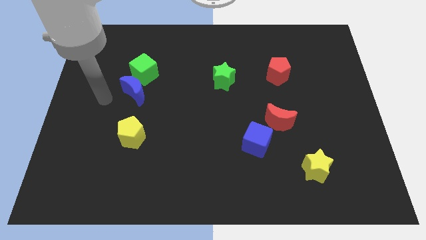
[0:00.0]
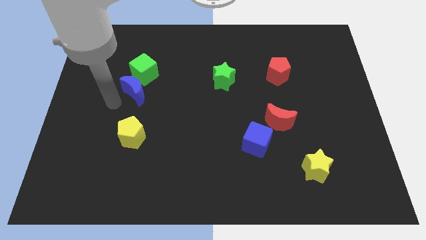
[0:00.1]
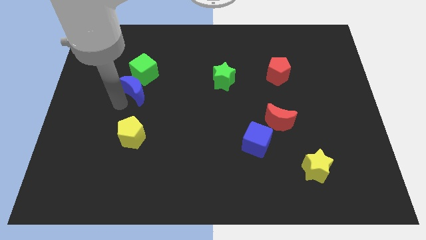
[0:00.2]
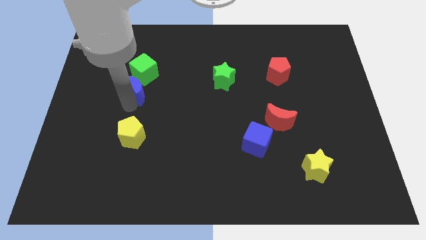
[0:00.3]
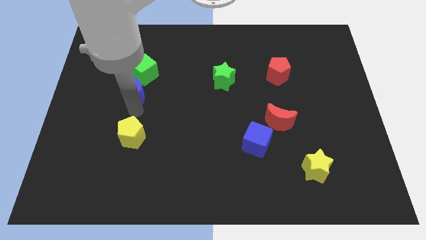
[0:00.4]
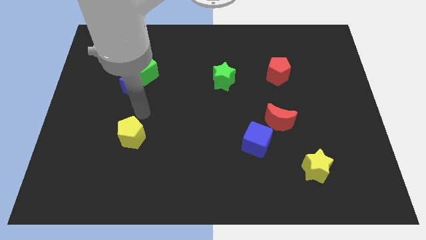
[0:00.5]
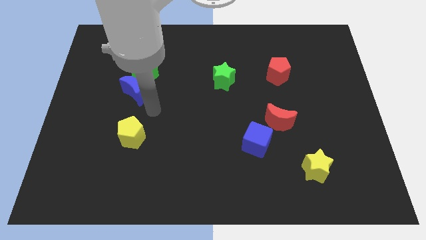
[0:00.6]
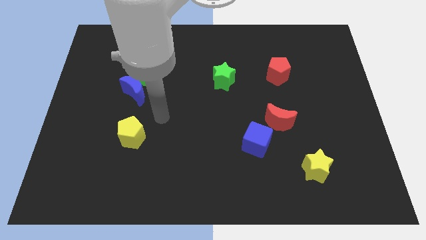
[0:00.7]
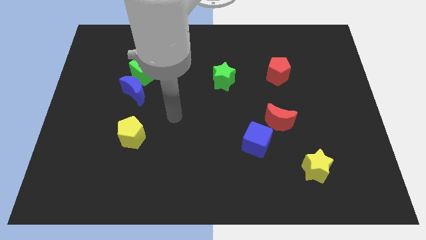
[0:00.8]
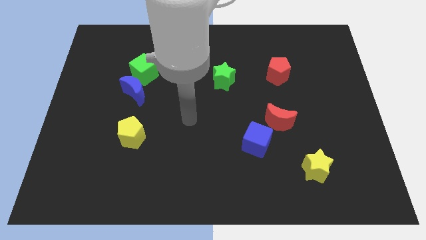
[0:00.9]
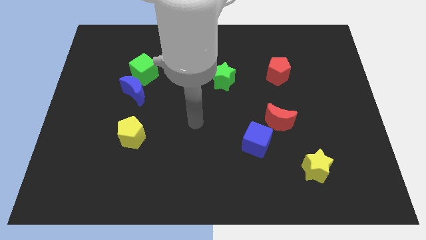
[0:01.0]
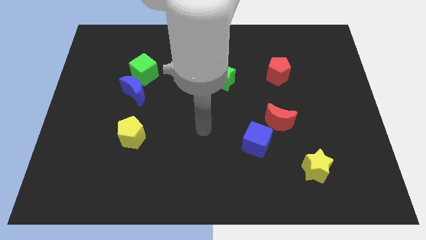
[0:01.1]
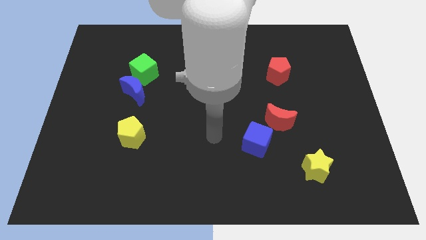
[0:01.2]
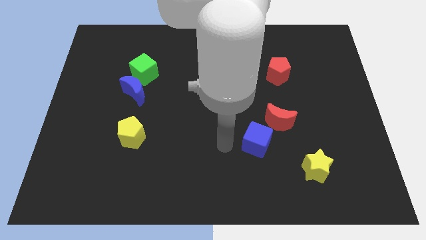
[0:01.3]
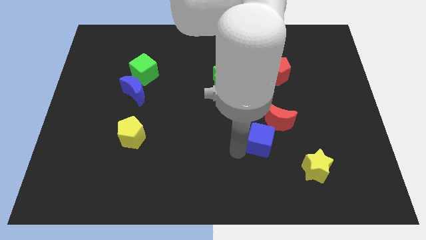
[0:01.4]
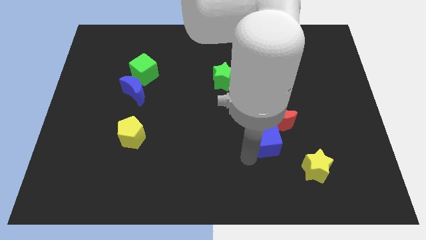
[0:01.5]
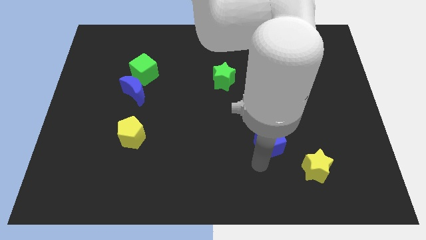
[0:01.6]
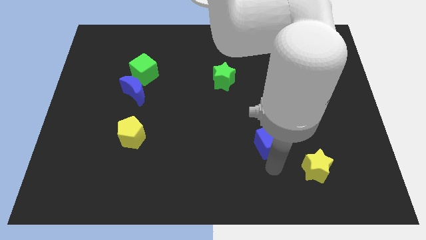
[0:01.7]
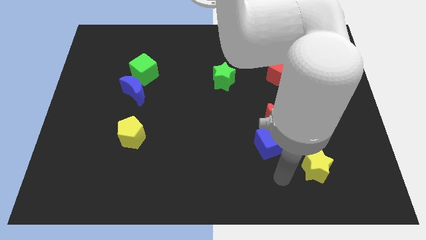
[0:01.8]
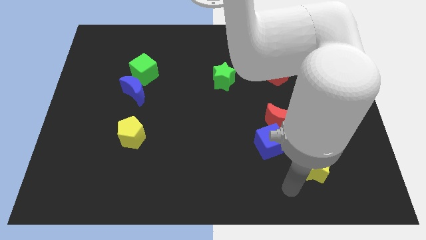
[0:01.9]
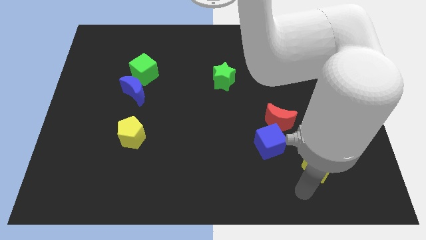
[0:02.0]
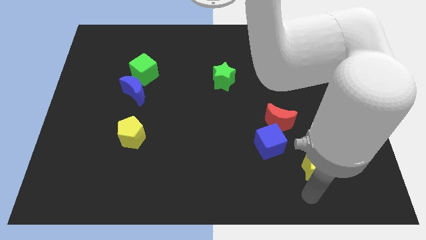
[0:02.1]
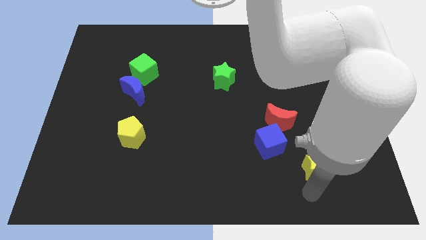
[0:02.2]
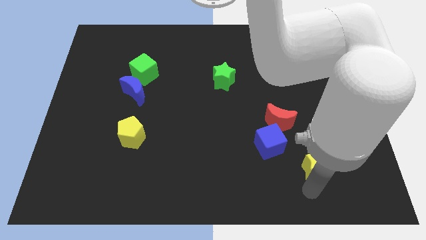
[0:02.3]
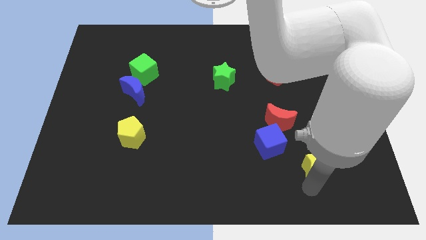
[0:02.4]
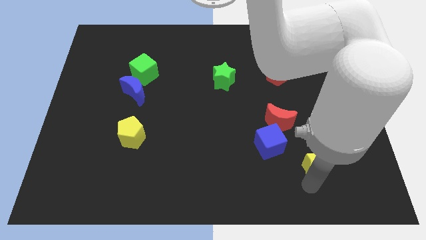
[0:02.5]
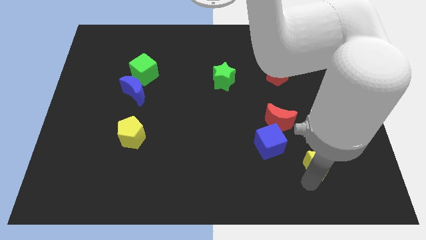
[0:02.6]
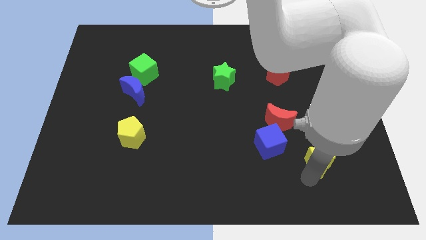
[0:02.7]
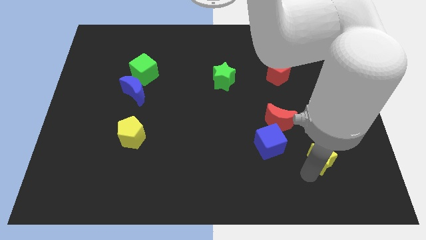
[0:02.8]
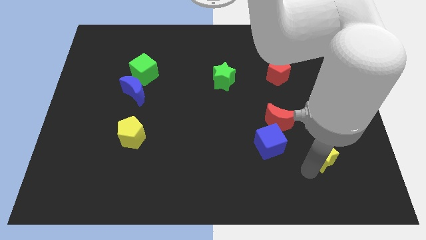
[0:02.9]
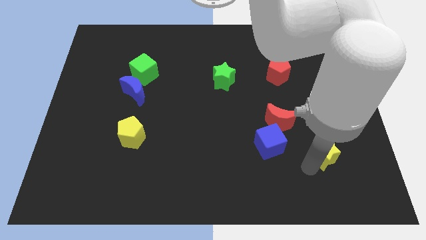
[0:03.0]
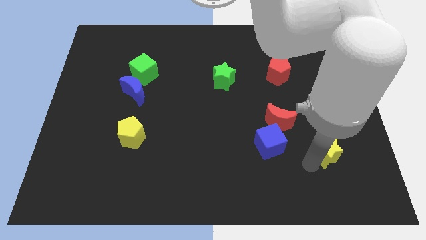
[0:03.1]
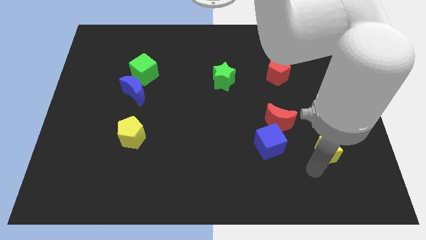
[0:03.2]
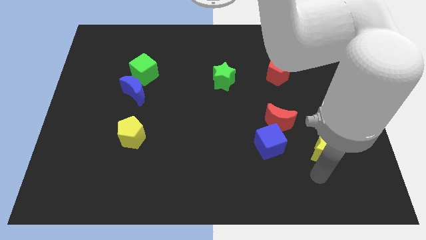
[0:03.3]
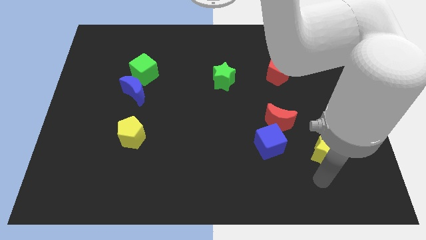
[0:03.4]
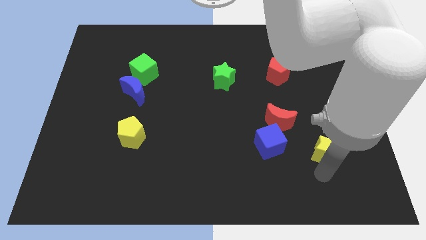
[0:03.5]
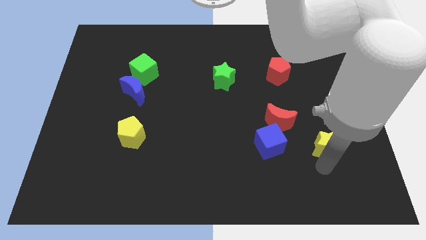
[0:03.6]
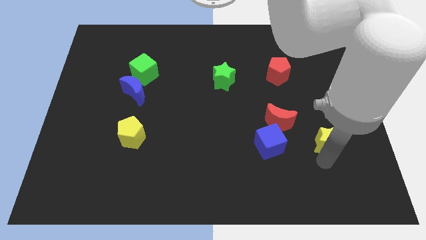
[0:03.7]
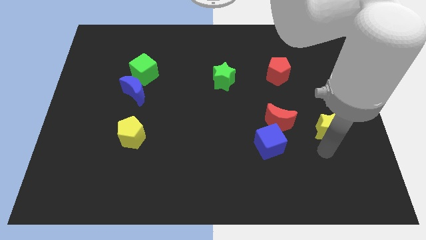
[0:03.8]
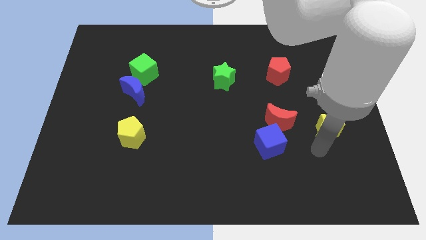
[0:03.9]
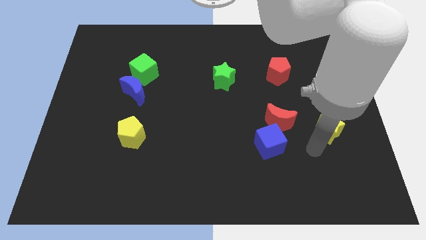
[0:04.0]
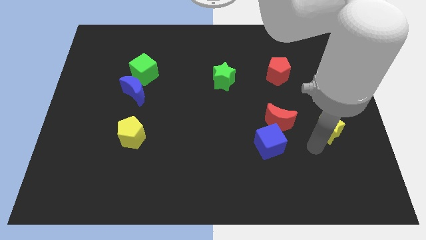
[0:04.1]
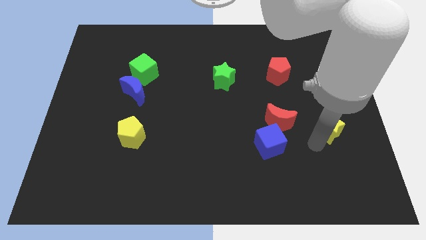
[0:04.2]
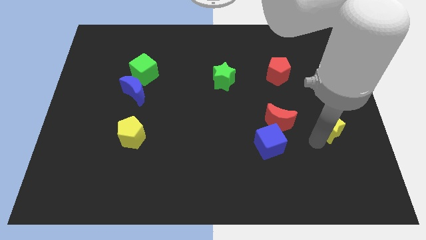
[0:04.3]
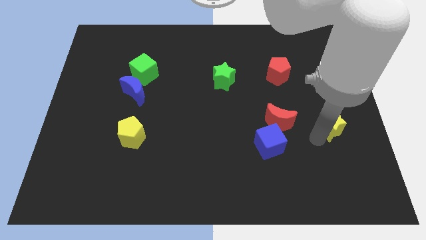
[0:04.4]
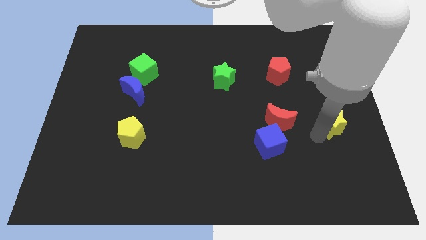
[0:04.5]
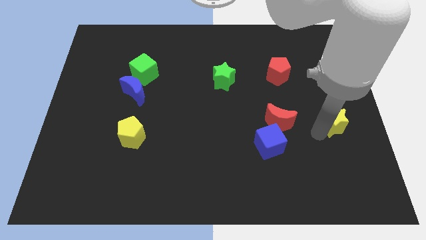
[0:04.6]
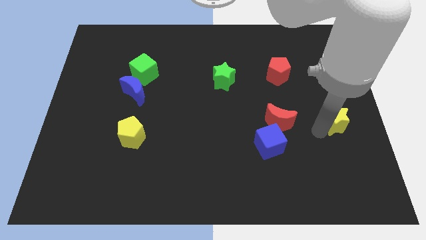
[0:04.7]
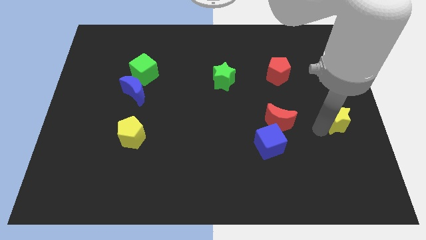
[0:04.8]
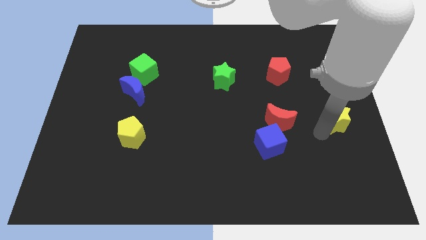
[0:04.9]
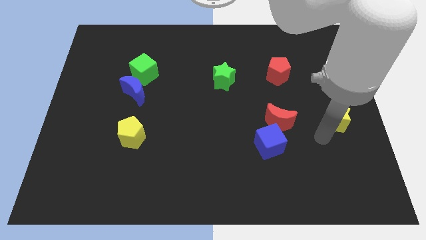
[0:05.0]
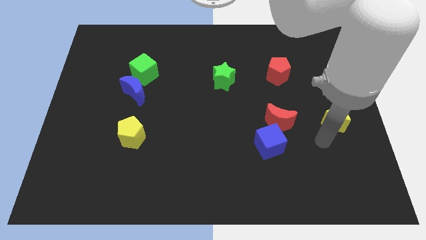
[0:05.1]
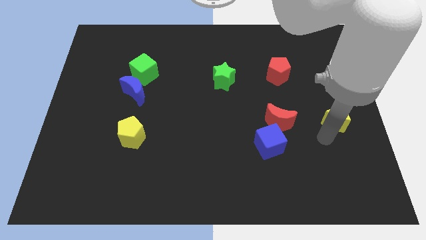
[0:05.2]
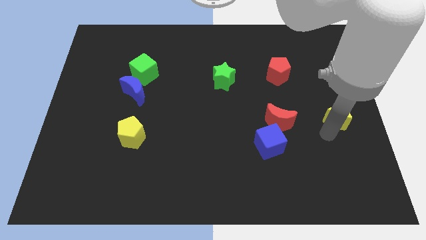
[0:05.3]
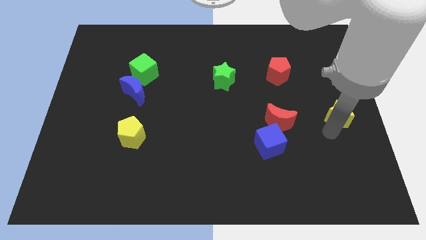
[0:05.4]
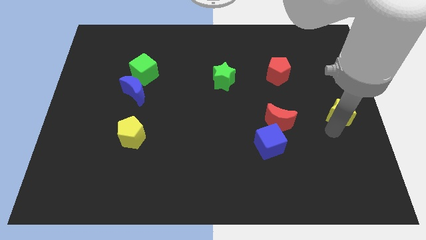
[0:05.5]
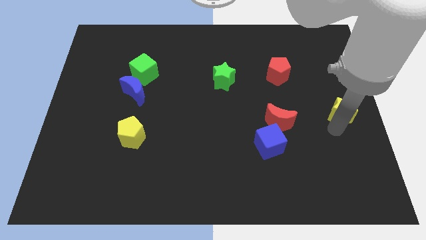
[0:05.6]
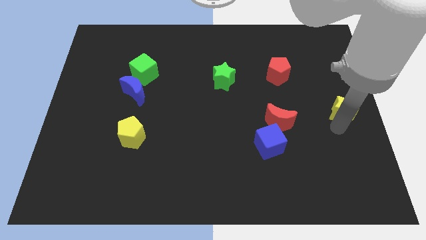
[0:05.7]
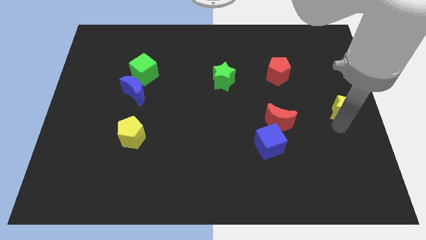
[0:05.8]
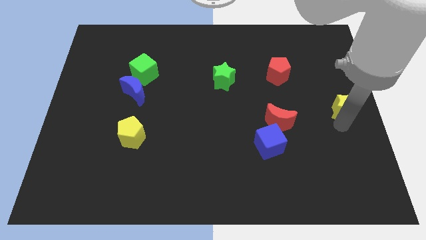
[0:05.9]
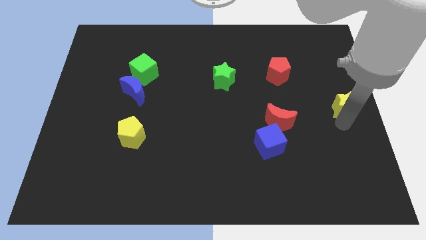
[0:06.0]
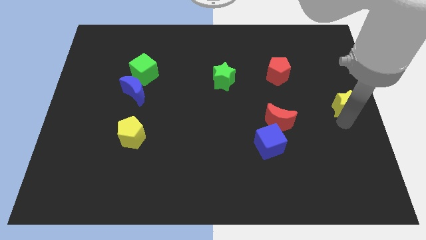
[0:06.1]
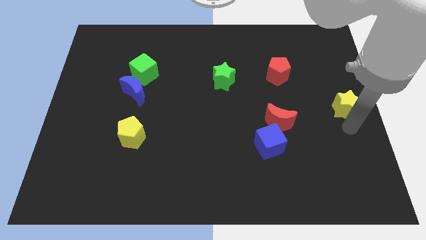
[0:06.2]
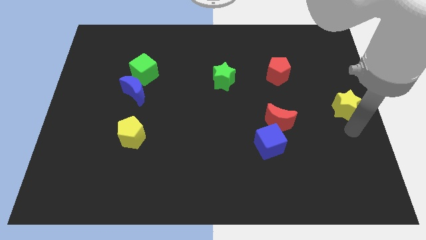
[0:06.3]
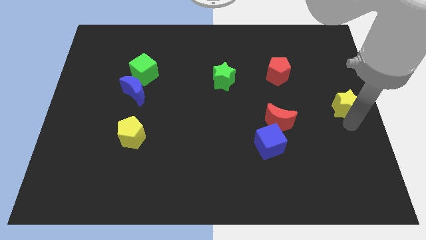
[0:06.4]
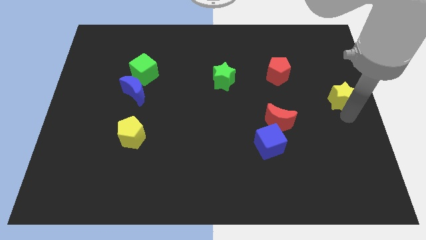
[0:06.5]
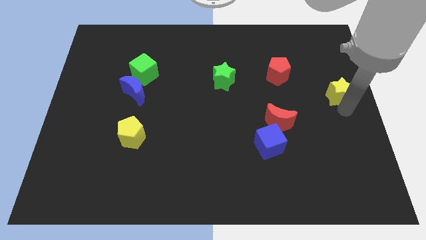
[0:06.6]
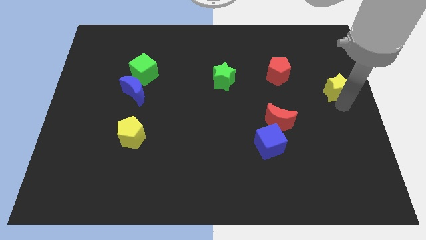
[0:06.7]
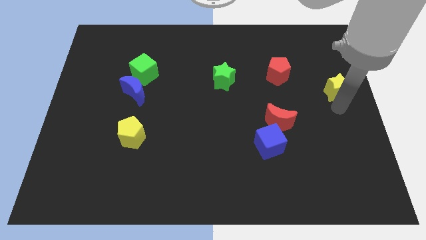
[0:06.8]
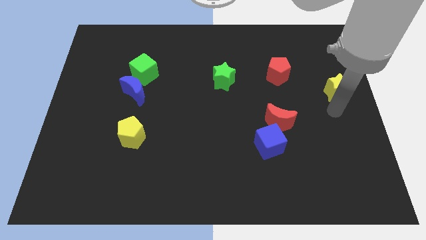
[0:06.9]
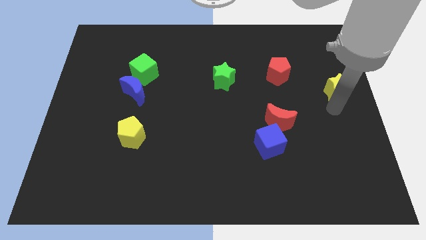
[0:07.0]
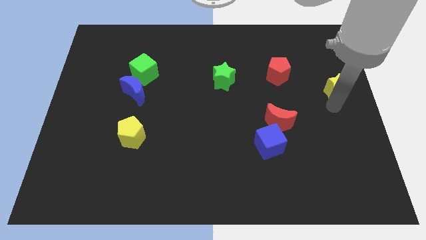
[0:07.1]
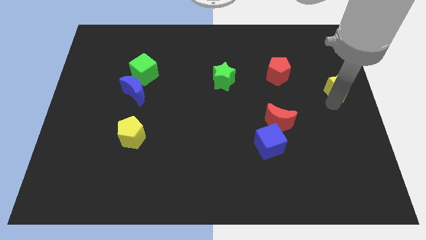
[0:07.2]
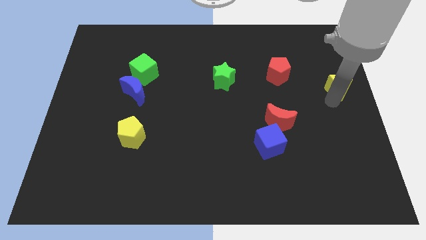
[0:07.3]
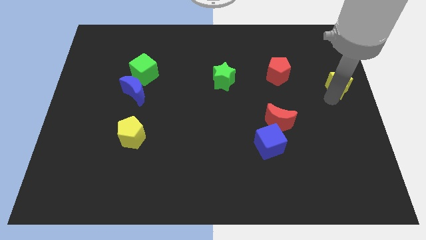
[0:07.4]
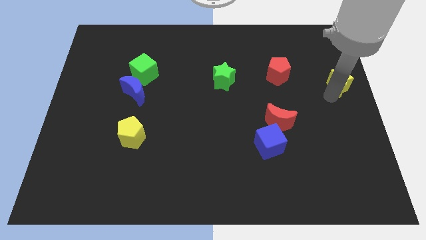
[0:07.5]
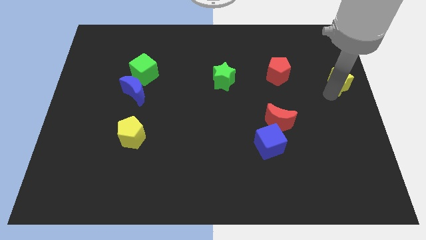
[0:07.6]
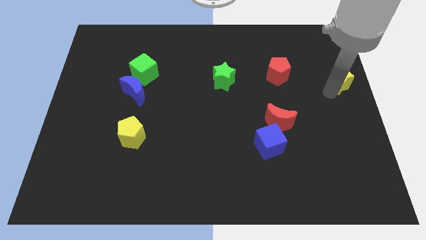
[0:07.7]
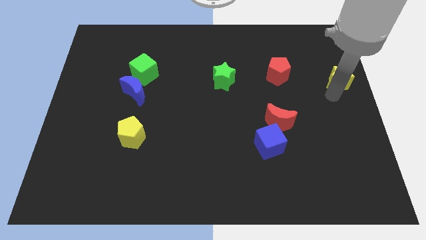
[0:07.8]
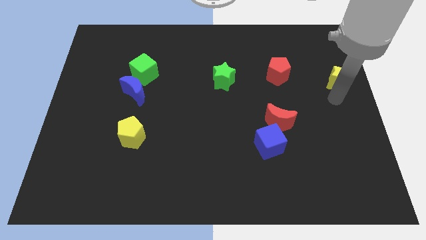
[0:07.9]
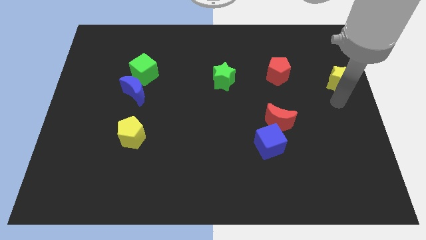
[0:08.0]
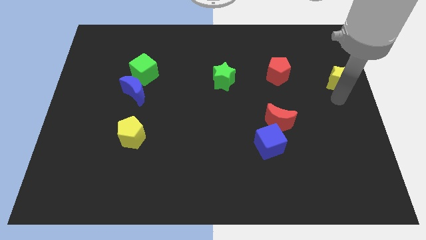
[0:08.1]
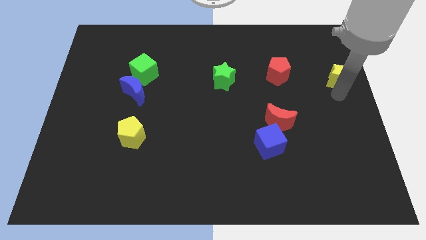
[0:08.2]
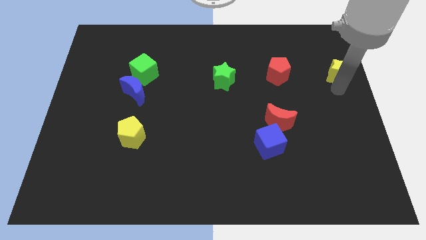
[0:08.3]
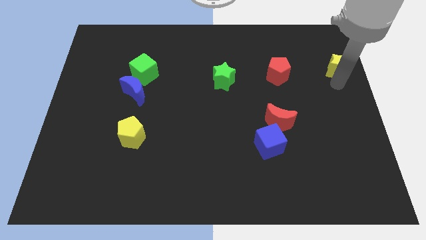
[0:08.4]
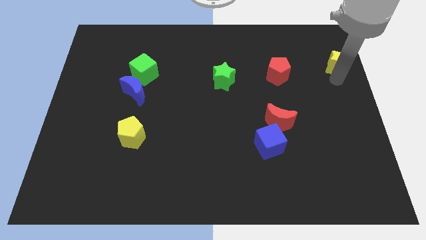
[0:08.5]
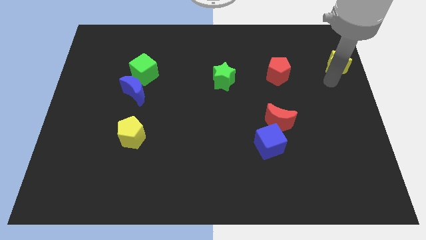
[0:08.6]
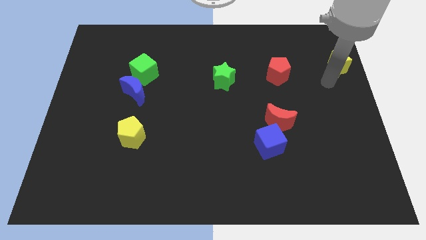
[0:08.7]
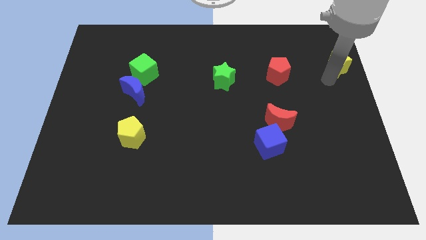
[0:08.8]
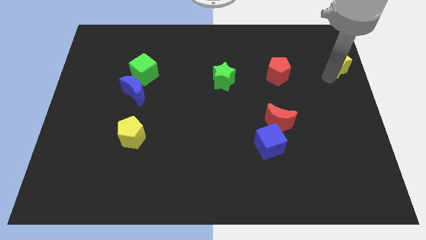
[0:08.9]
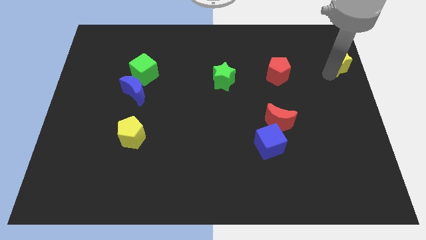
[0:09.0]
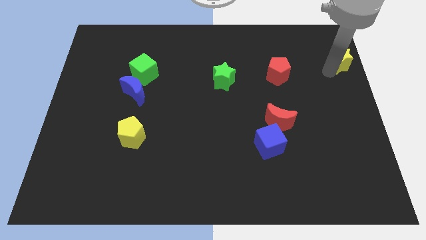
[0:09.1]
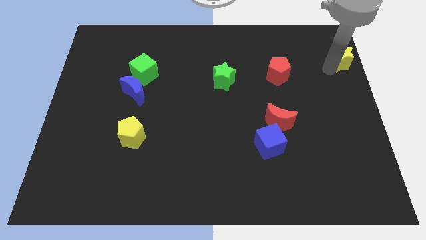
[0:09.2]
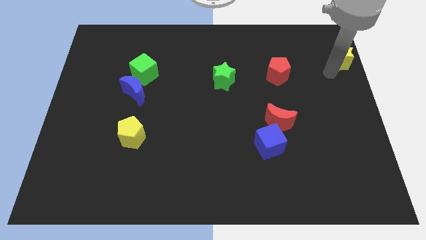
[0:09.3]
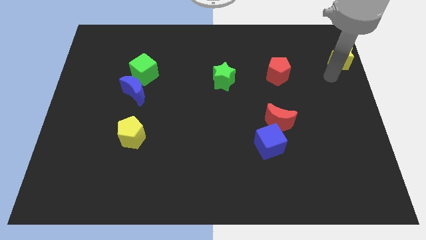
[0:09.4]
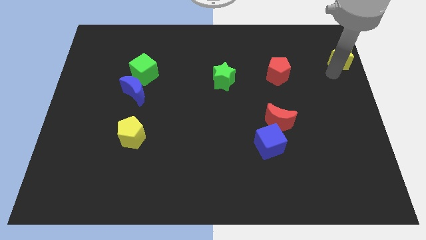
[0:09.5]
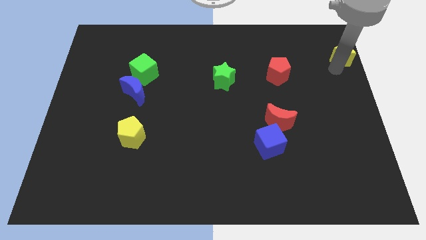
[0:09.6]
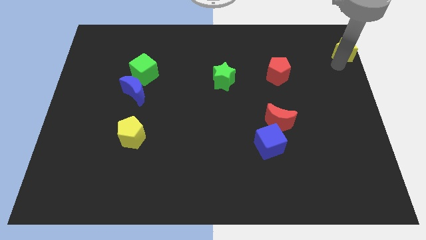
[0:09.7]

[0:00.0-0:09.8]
slide the yellow star to the top right of the board
